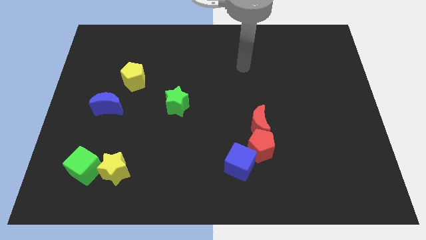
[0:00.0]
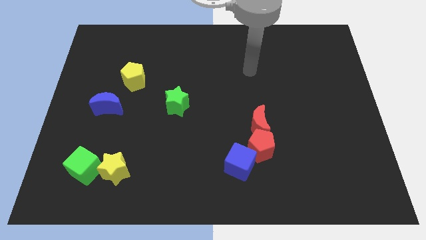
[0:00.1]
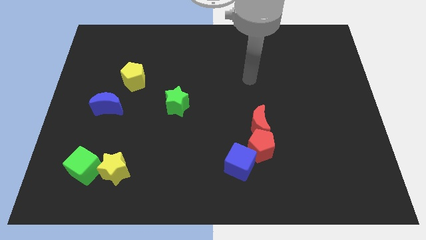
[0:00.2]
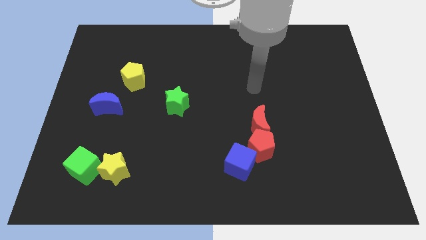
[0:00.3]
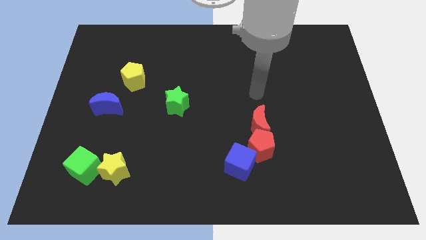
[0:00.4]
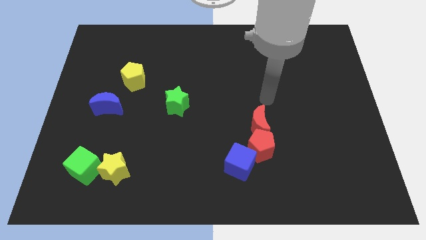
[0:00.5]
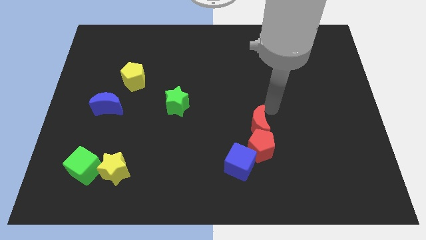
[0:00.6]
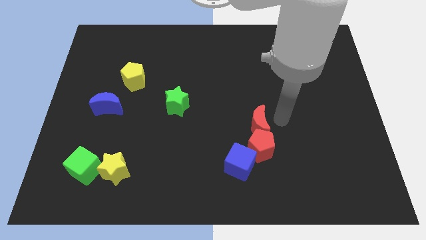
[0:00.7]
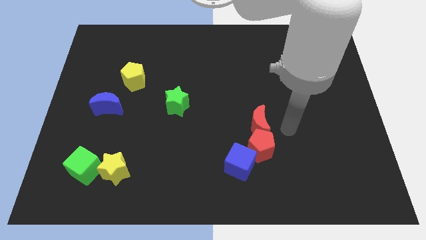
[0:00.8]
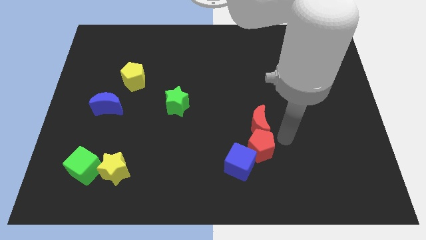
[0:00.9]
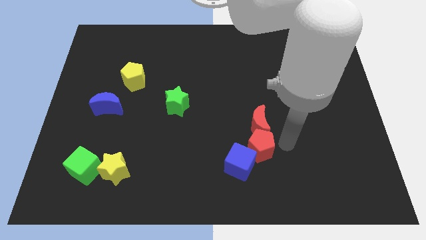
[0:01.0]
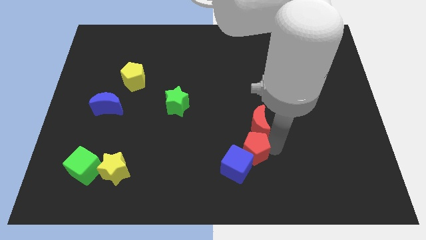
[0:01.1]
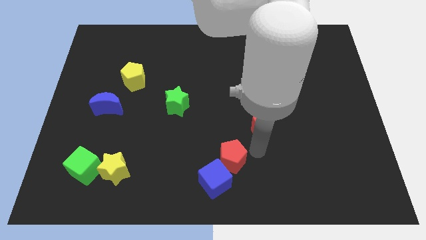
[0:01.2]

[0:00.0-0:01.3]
separate the red moon from the red pentagon

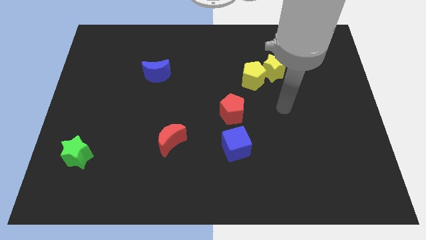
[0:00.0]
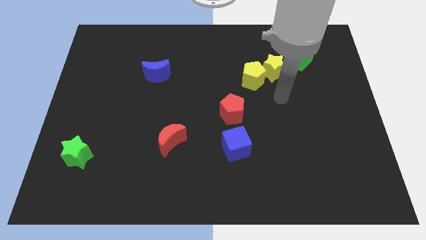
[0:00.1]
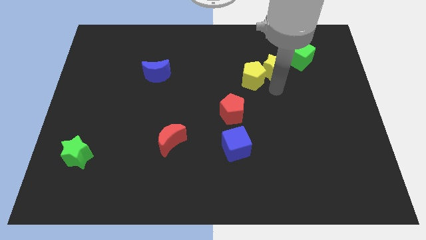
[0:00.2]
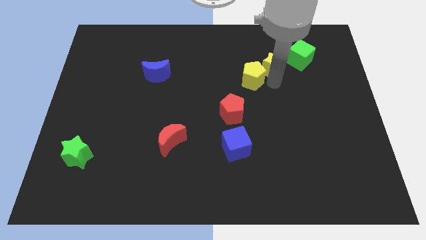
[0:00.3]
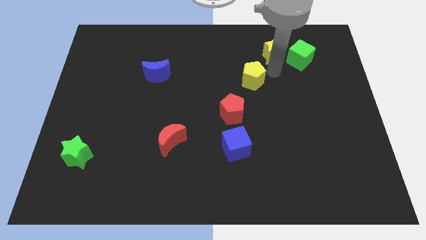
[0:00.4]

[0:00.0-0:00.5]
separate the yellow pentagon from the yellow star

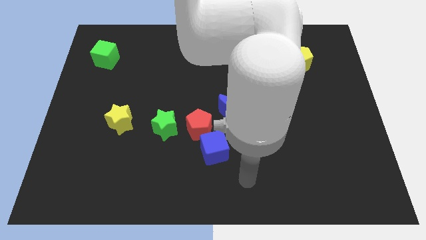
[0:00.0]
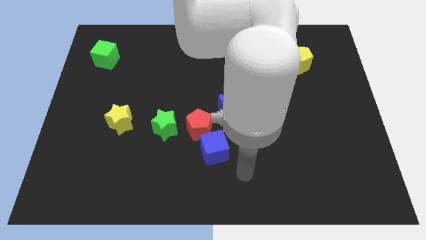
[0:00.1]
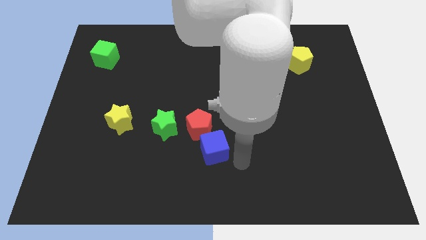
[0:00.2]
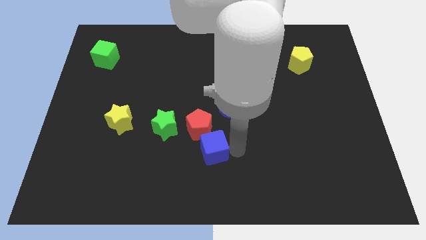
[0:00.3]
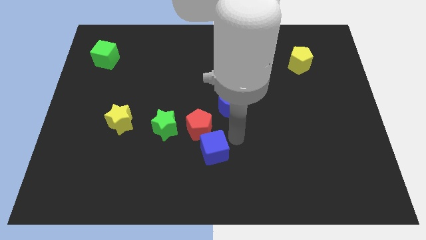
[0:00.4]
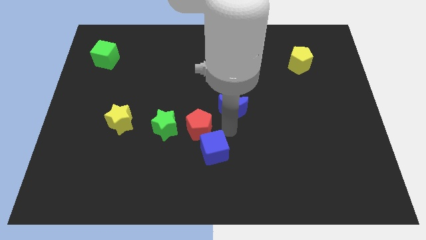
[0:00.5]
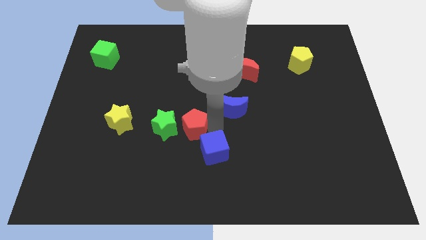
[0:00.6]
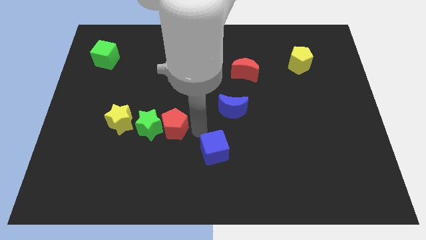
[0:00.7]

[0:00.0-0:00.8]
pull the blue cube apart from the red pentagon

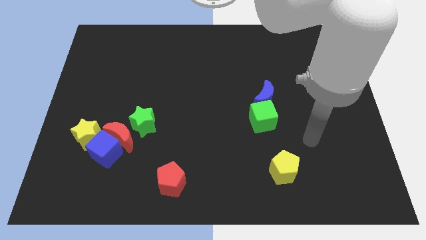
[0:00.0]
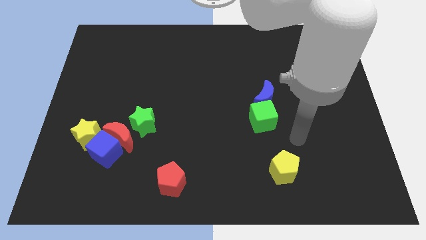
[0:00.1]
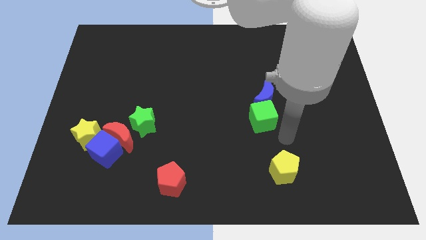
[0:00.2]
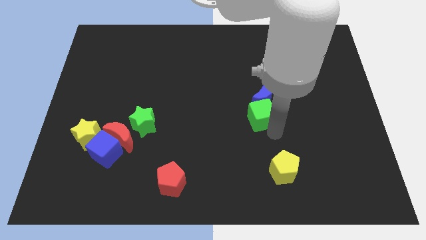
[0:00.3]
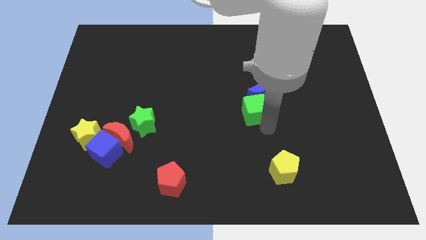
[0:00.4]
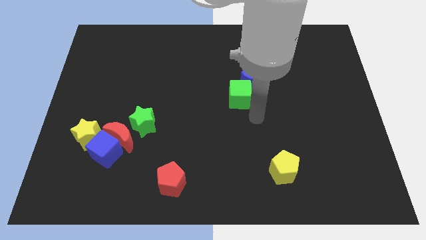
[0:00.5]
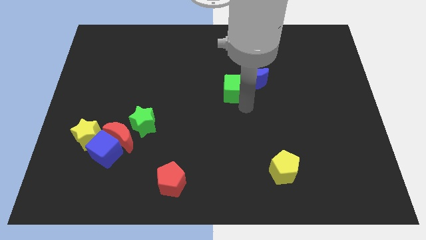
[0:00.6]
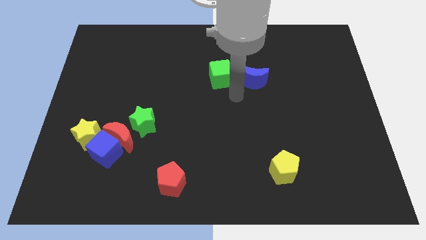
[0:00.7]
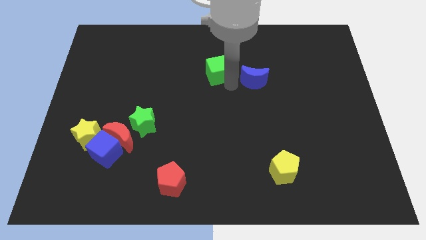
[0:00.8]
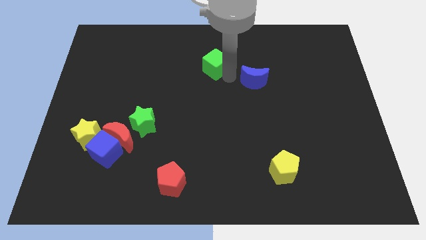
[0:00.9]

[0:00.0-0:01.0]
move the blue moon away from the green cube

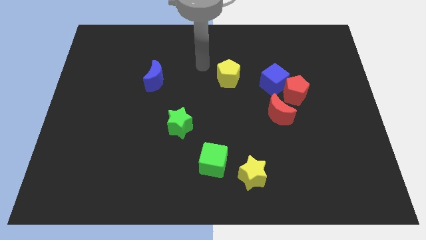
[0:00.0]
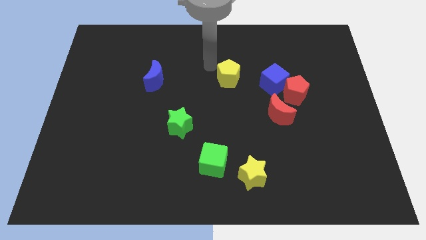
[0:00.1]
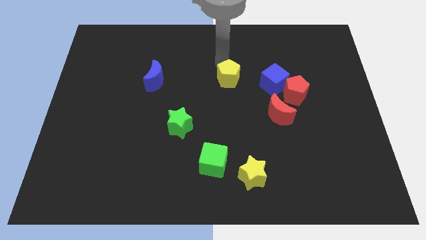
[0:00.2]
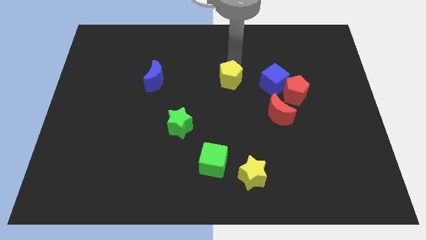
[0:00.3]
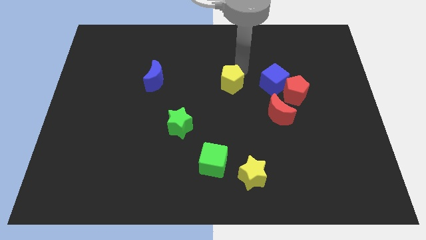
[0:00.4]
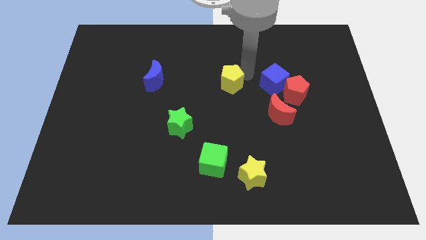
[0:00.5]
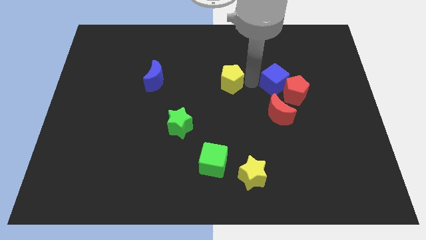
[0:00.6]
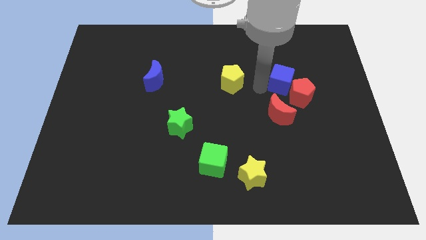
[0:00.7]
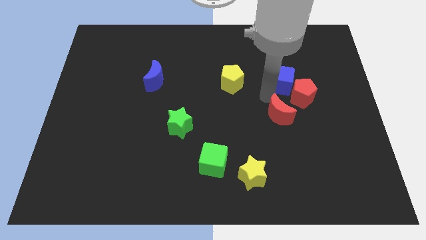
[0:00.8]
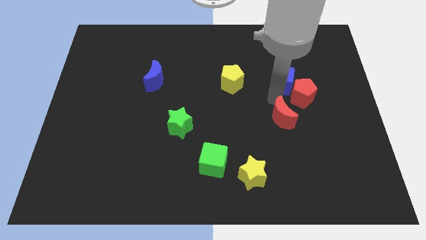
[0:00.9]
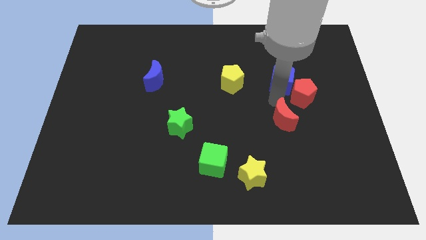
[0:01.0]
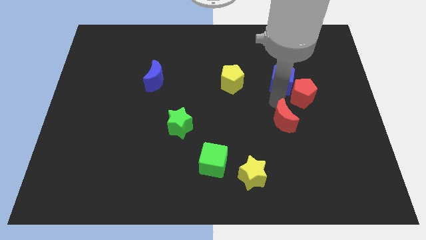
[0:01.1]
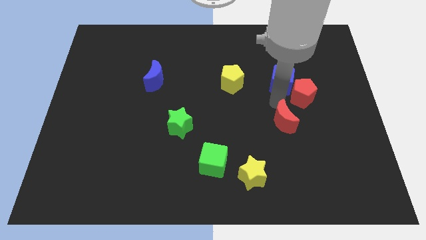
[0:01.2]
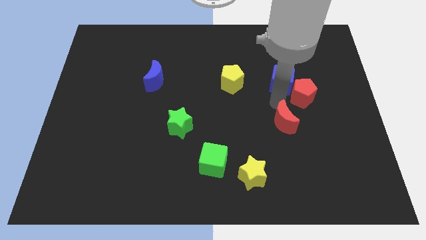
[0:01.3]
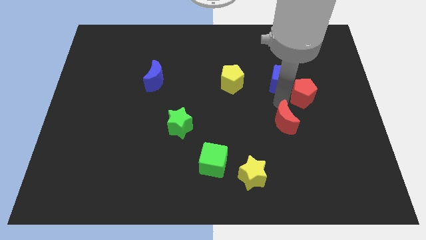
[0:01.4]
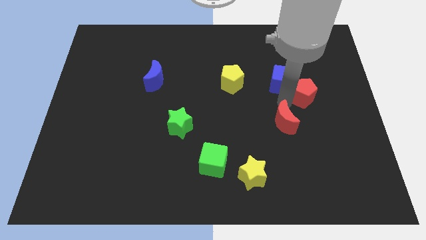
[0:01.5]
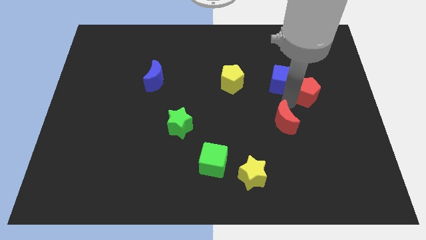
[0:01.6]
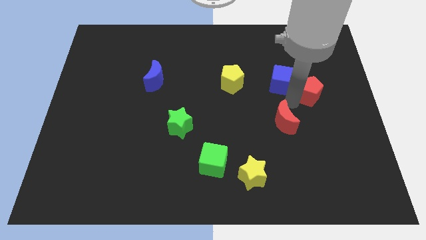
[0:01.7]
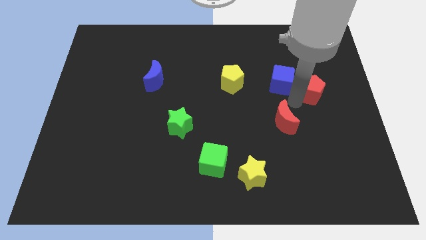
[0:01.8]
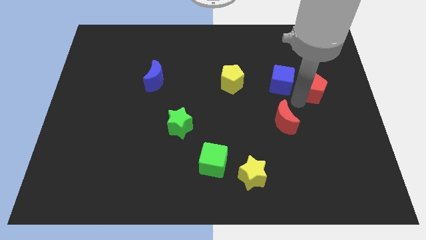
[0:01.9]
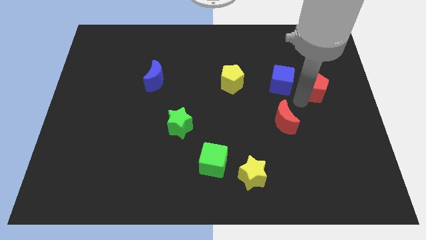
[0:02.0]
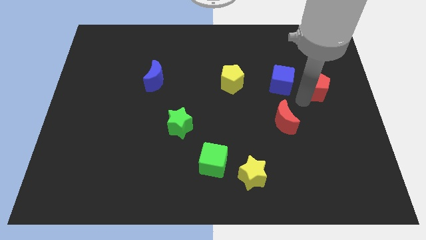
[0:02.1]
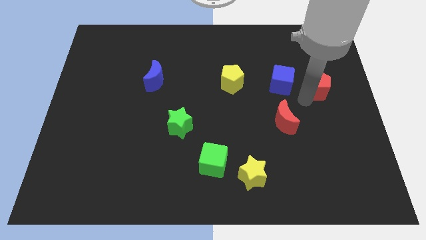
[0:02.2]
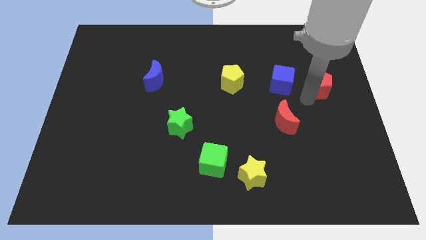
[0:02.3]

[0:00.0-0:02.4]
move the red pentagon away from the blue cube and red moon

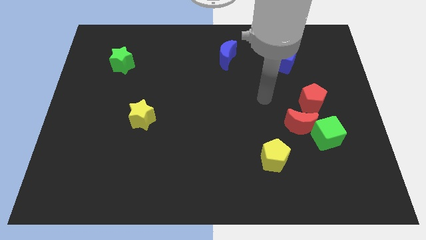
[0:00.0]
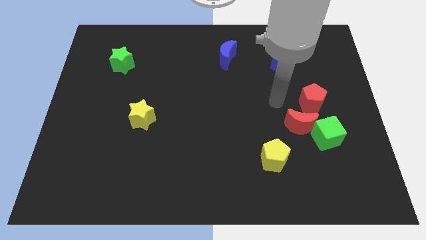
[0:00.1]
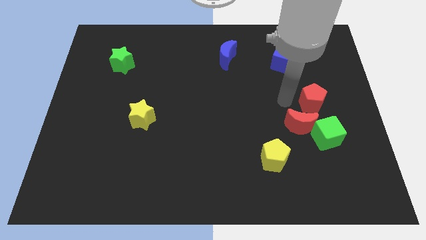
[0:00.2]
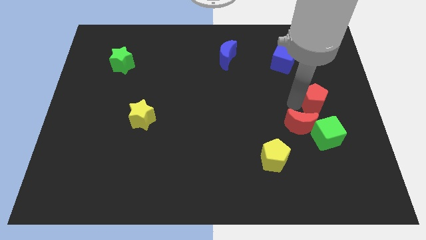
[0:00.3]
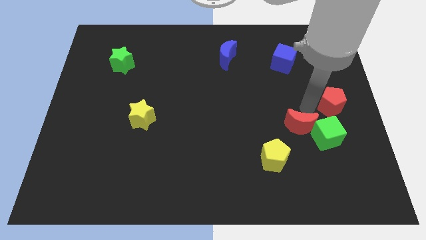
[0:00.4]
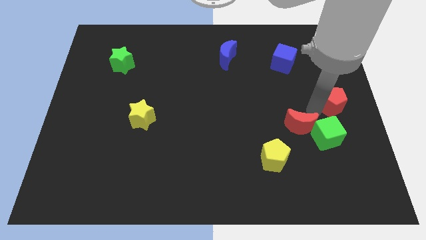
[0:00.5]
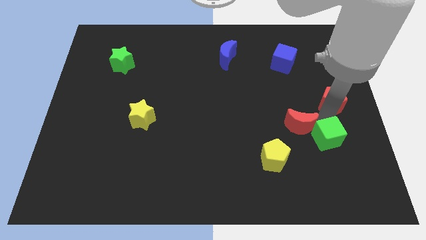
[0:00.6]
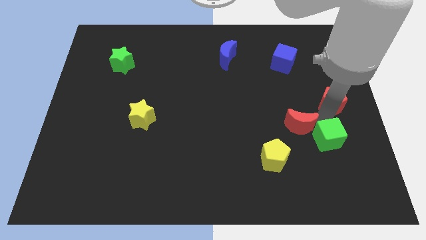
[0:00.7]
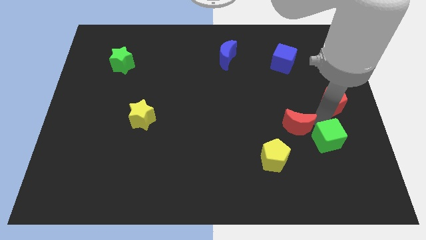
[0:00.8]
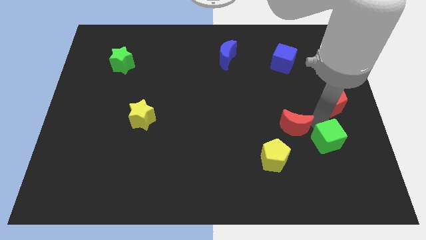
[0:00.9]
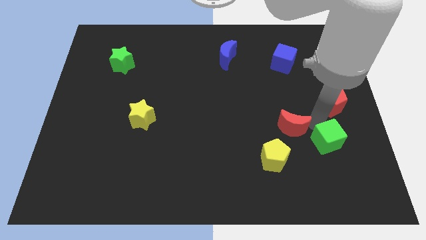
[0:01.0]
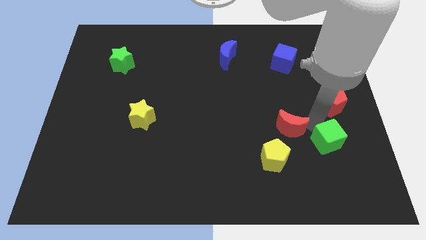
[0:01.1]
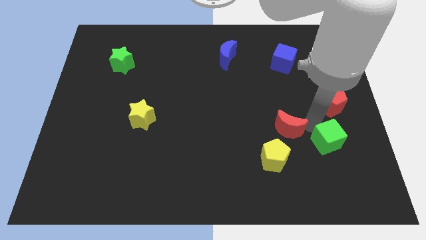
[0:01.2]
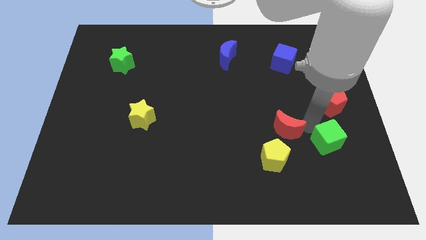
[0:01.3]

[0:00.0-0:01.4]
move the red moon away from the green cube and red pentagon

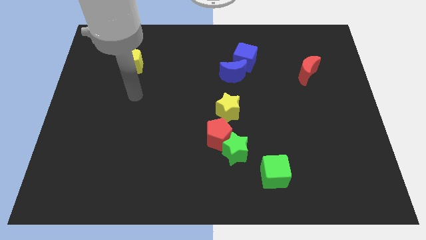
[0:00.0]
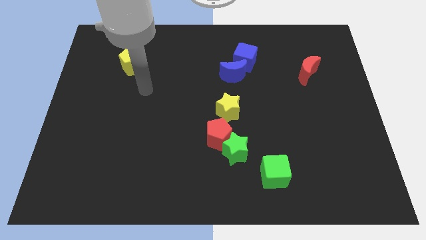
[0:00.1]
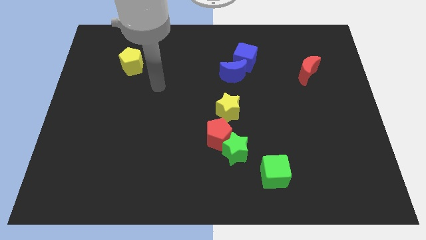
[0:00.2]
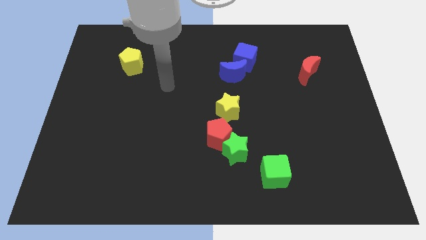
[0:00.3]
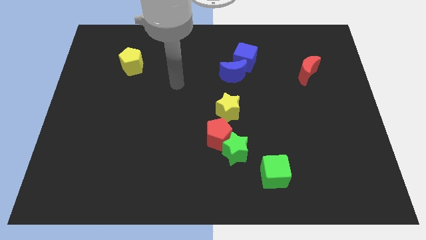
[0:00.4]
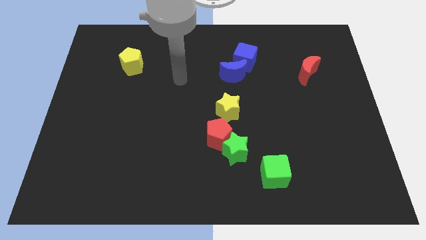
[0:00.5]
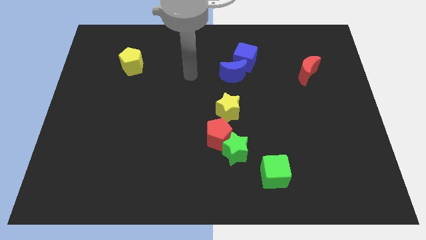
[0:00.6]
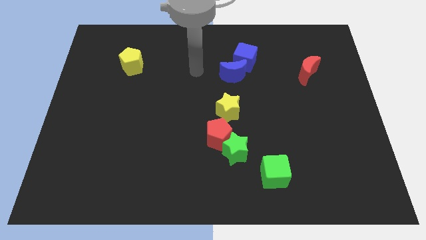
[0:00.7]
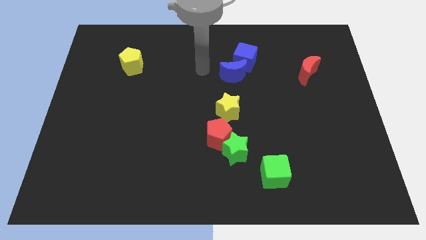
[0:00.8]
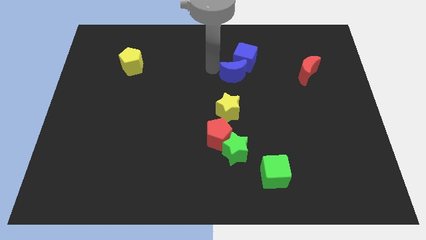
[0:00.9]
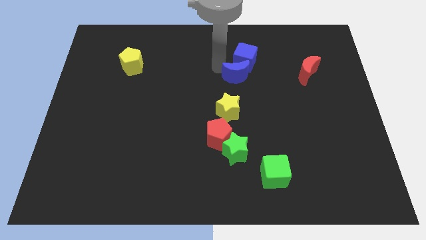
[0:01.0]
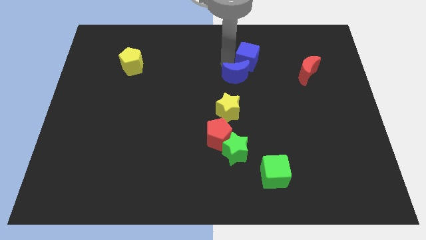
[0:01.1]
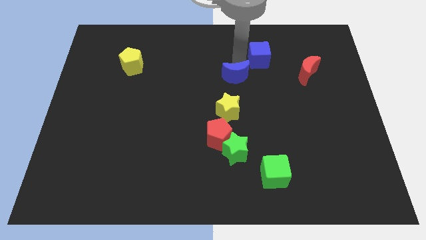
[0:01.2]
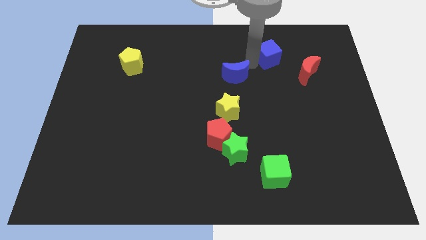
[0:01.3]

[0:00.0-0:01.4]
pull the blue moon apart from the blue cube

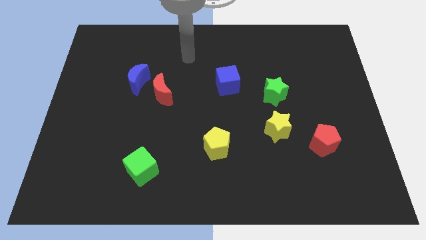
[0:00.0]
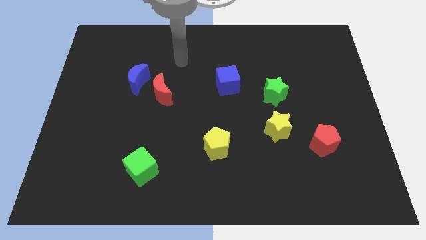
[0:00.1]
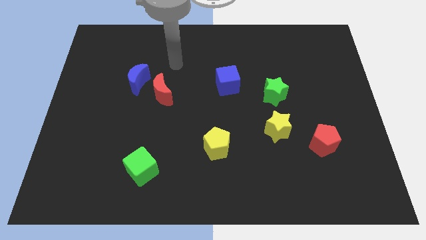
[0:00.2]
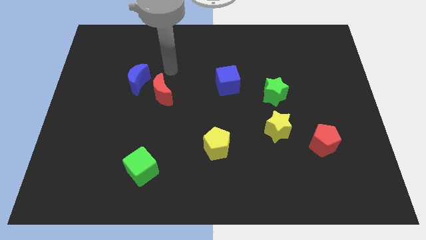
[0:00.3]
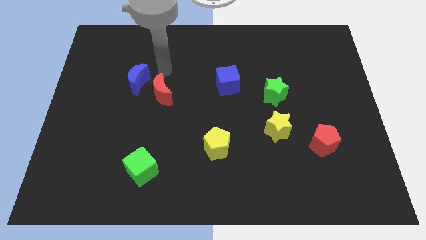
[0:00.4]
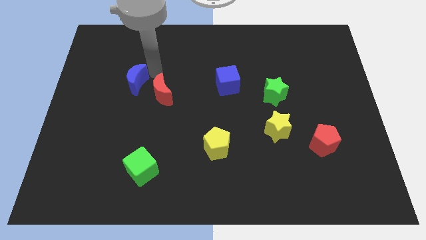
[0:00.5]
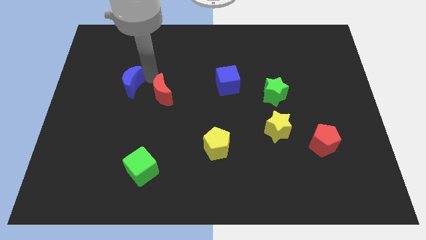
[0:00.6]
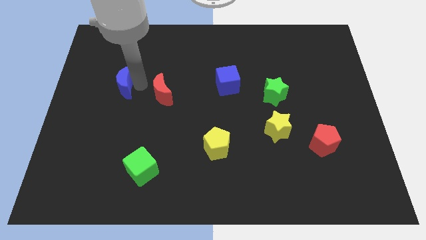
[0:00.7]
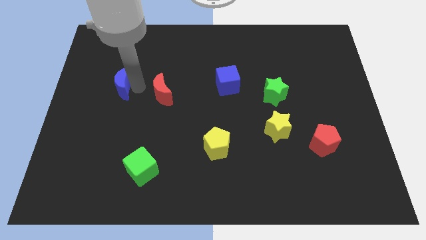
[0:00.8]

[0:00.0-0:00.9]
separate the red moon from the blue moon
